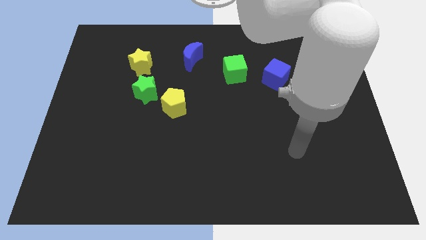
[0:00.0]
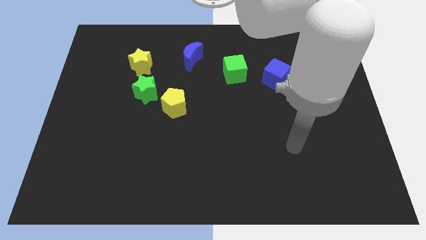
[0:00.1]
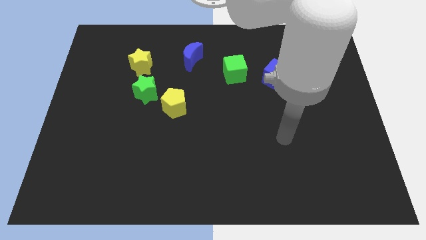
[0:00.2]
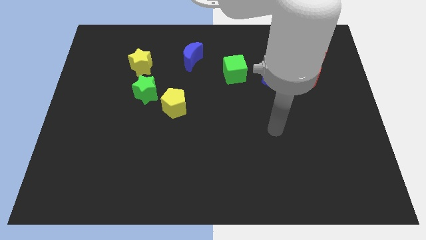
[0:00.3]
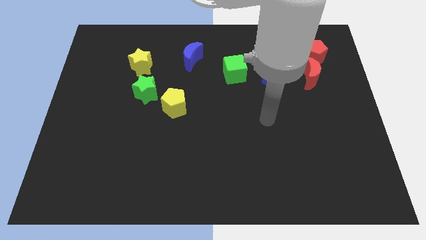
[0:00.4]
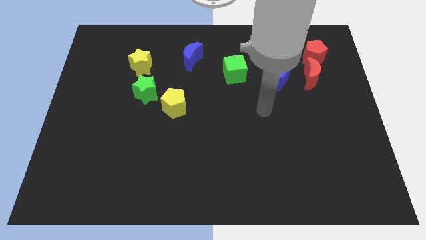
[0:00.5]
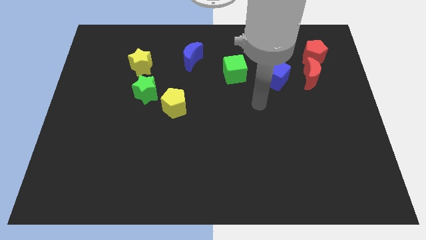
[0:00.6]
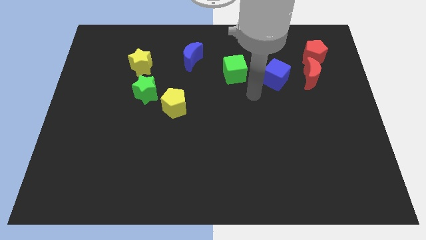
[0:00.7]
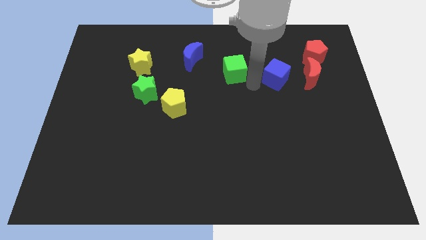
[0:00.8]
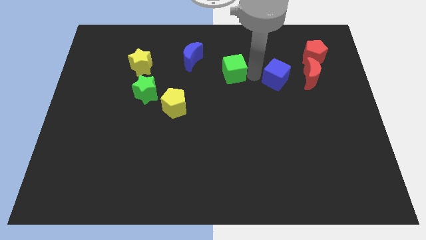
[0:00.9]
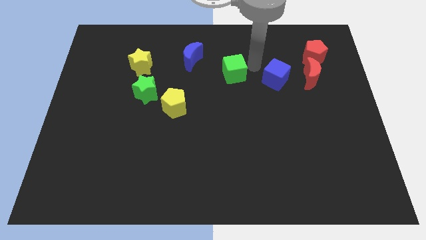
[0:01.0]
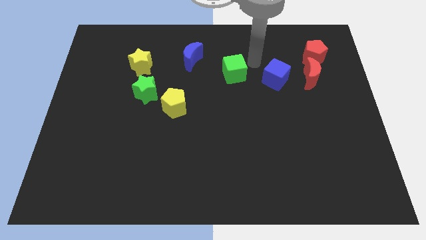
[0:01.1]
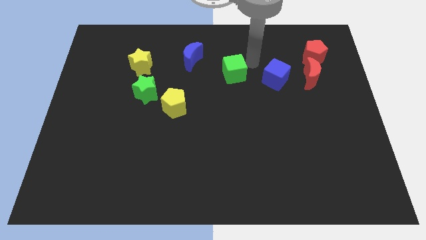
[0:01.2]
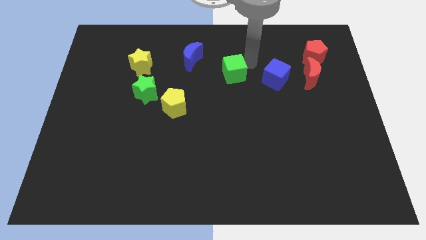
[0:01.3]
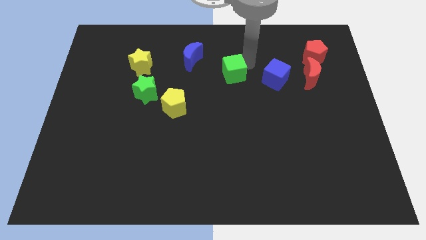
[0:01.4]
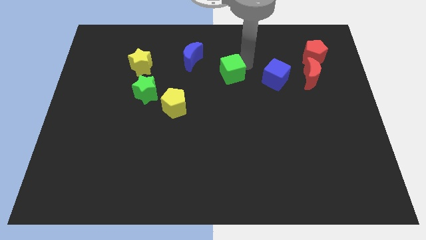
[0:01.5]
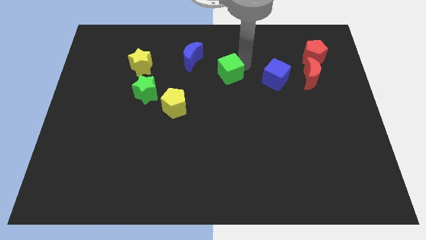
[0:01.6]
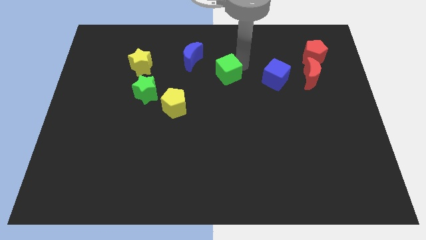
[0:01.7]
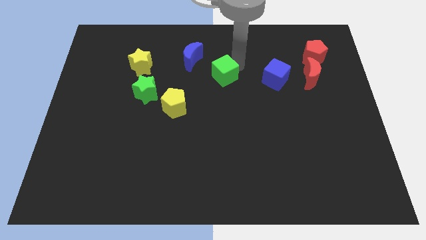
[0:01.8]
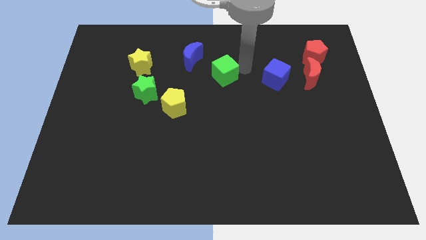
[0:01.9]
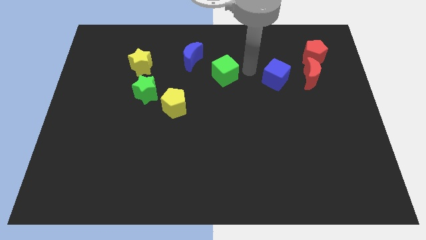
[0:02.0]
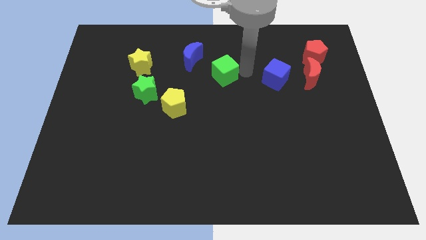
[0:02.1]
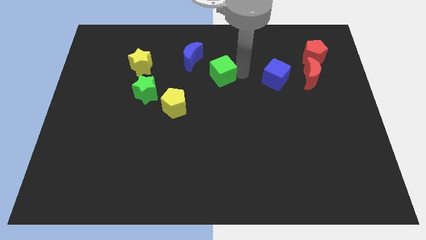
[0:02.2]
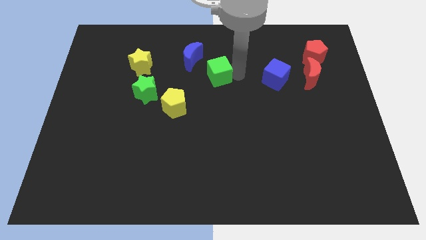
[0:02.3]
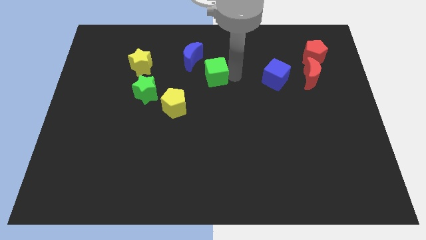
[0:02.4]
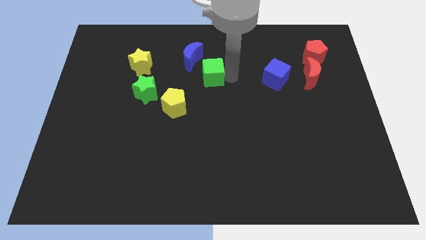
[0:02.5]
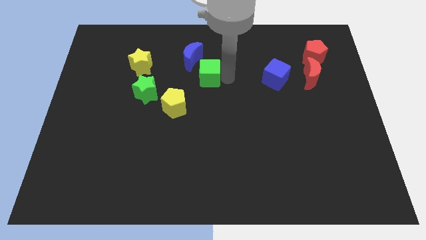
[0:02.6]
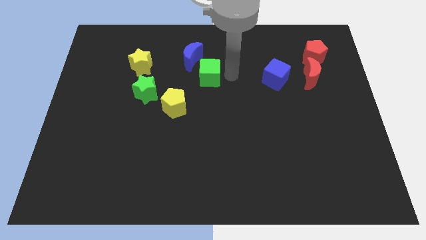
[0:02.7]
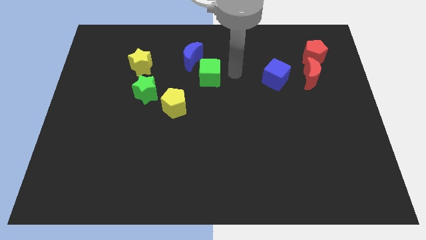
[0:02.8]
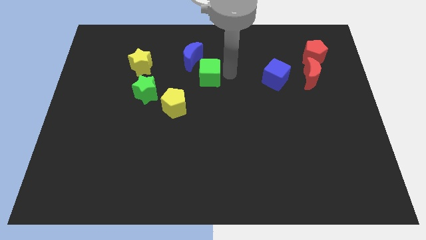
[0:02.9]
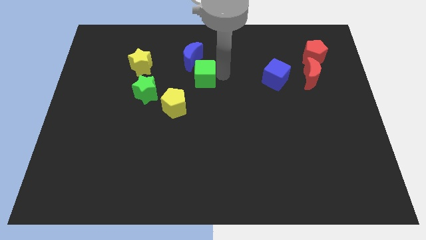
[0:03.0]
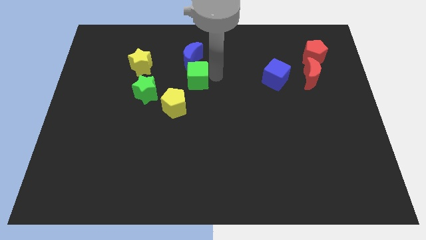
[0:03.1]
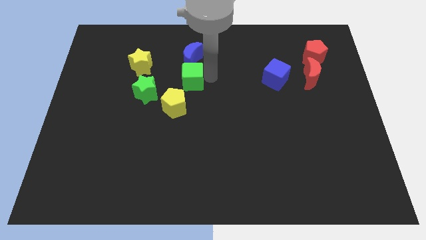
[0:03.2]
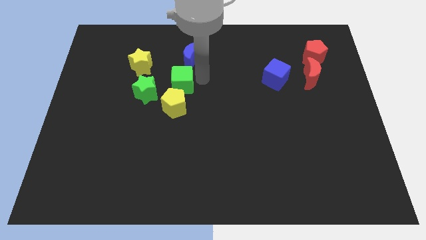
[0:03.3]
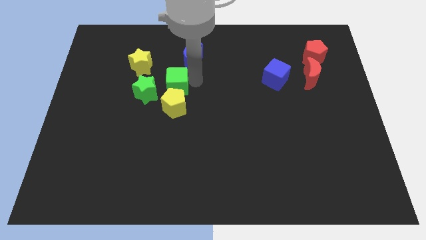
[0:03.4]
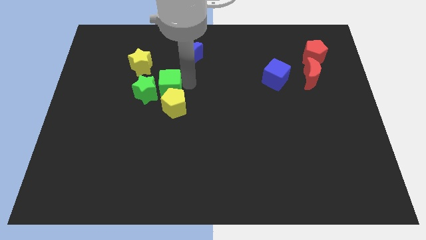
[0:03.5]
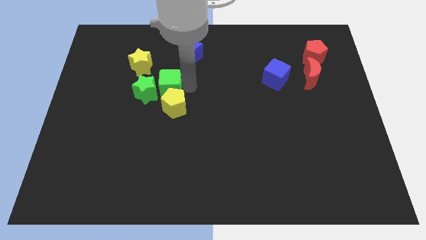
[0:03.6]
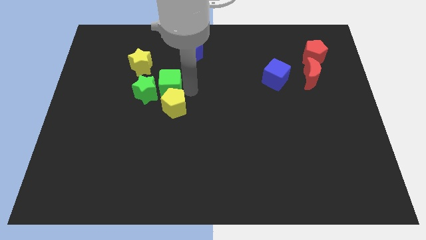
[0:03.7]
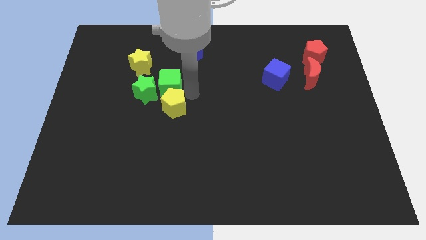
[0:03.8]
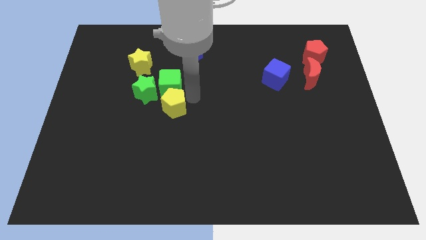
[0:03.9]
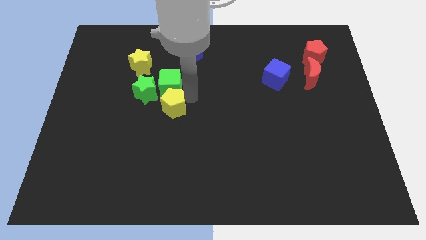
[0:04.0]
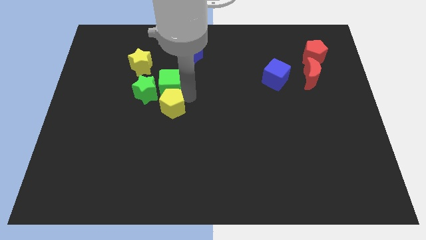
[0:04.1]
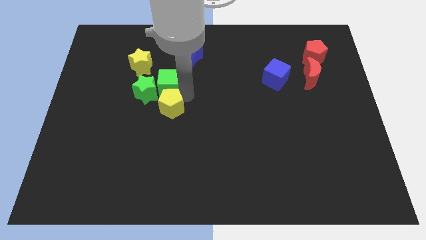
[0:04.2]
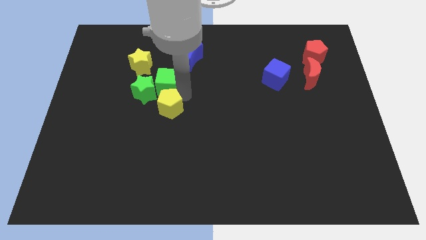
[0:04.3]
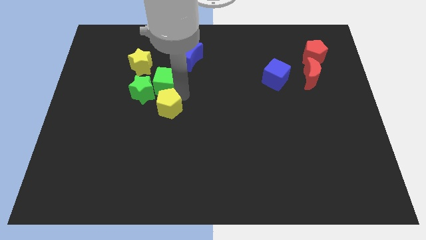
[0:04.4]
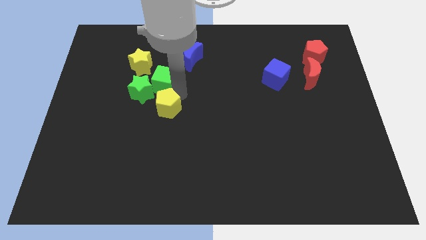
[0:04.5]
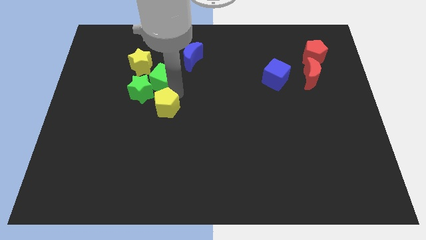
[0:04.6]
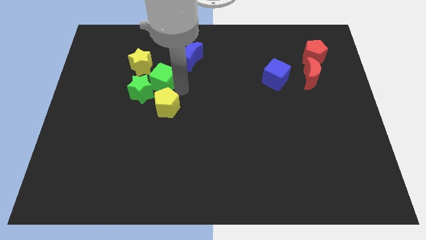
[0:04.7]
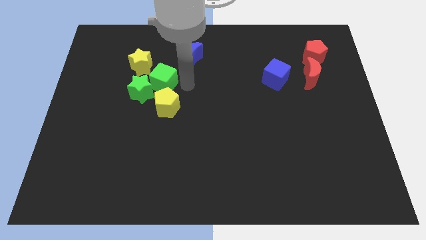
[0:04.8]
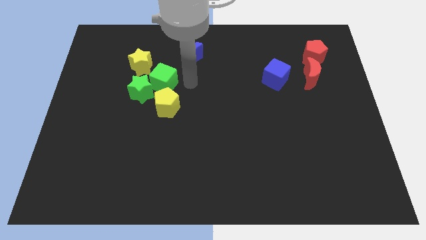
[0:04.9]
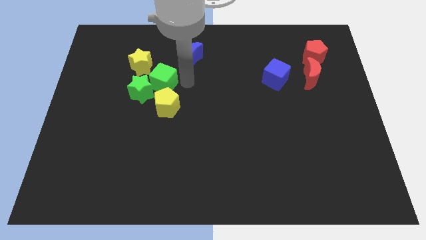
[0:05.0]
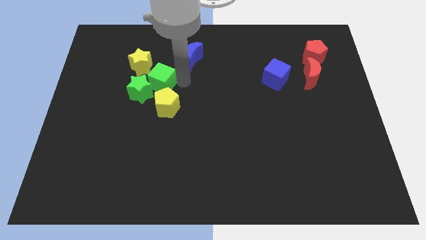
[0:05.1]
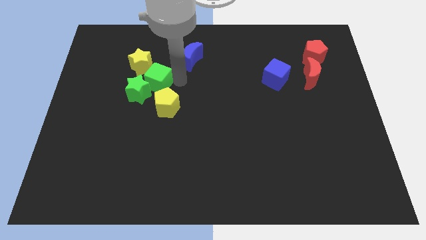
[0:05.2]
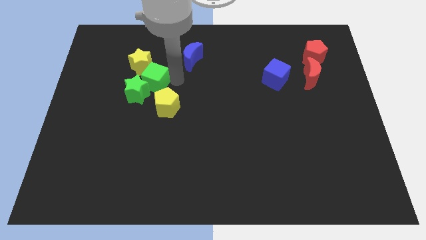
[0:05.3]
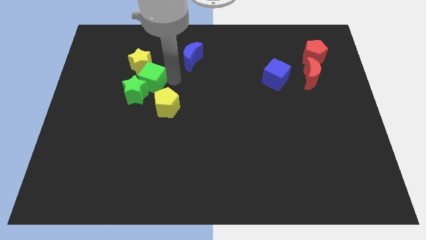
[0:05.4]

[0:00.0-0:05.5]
move the green cube left

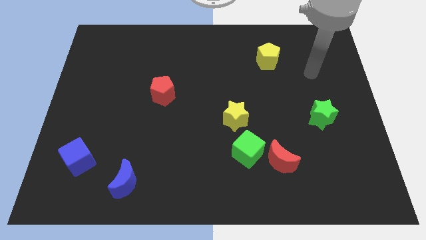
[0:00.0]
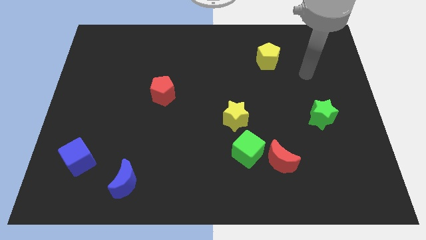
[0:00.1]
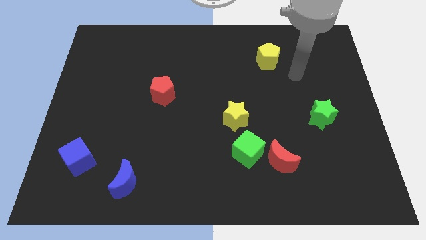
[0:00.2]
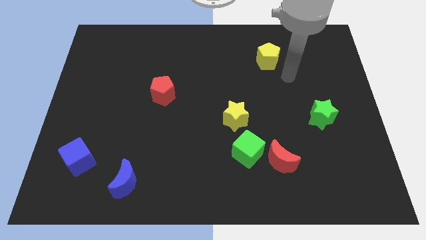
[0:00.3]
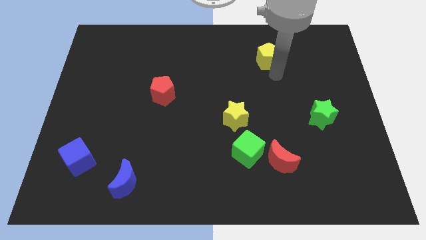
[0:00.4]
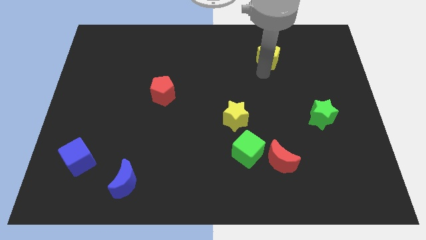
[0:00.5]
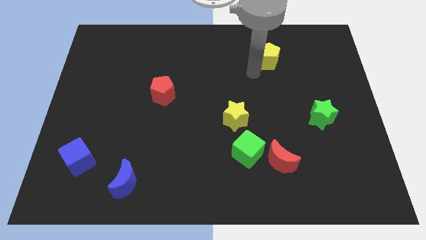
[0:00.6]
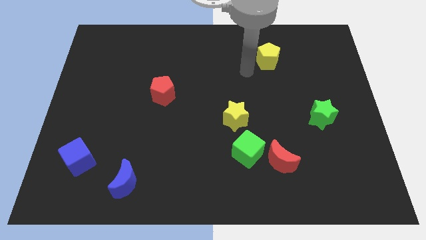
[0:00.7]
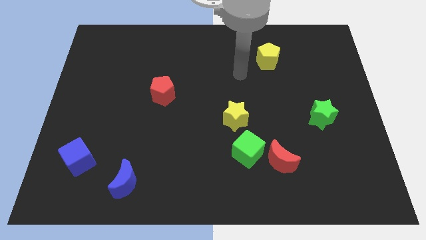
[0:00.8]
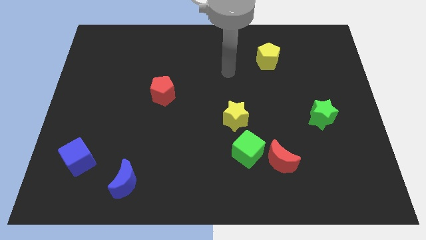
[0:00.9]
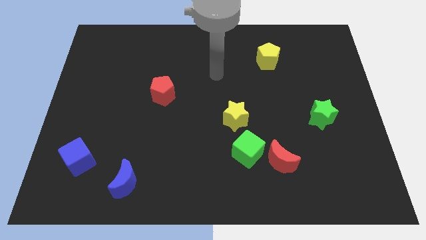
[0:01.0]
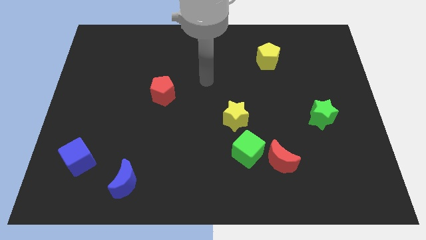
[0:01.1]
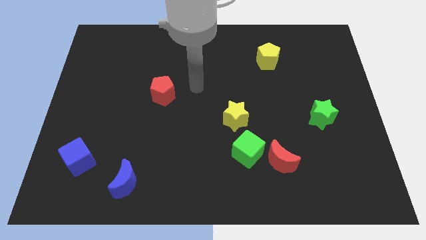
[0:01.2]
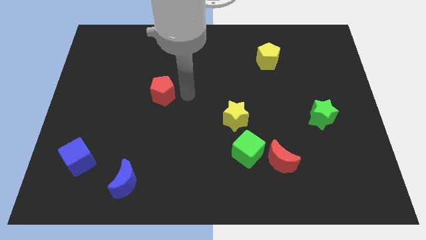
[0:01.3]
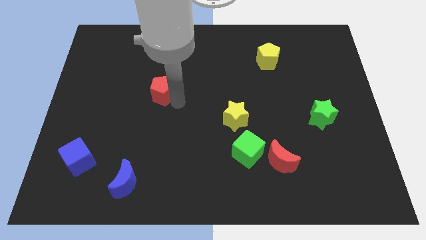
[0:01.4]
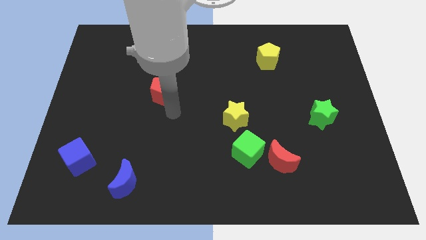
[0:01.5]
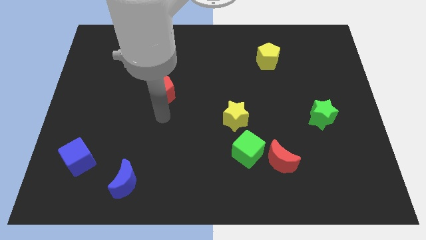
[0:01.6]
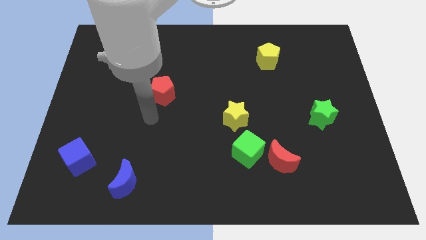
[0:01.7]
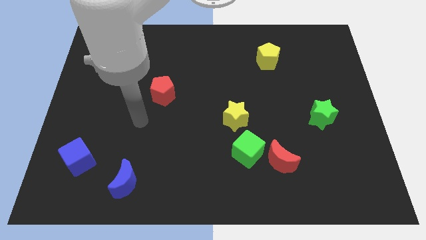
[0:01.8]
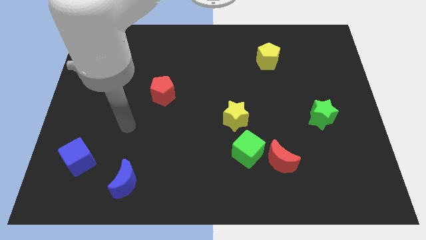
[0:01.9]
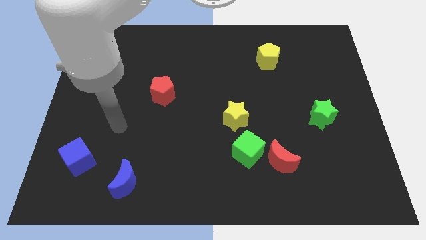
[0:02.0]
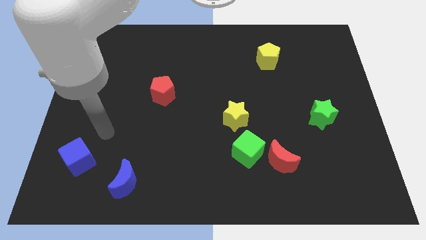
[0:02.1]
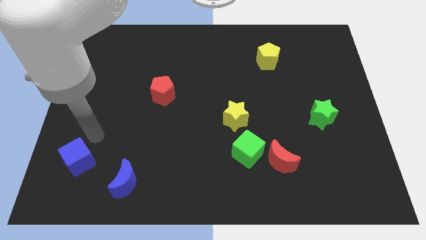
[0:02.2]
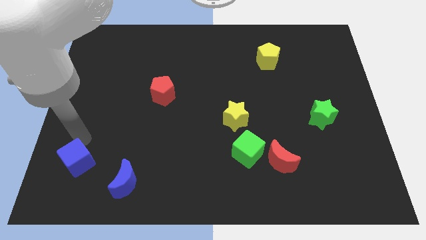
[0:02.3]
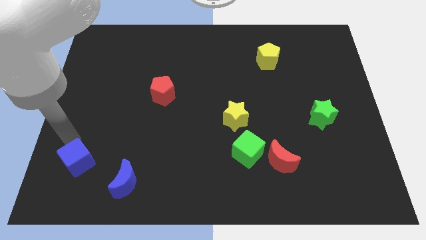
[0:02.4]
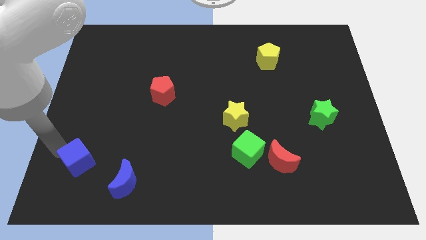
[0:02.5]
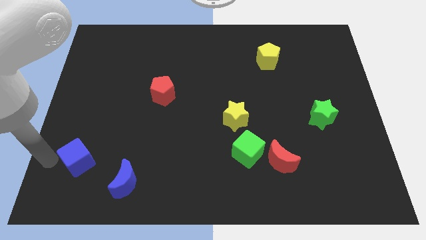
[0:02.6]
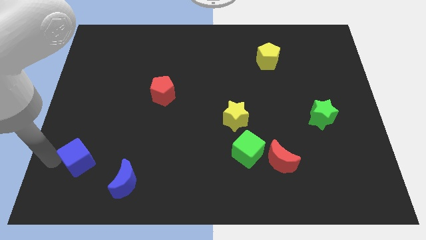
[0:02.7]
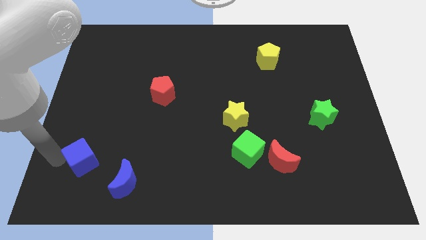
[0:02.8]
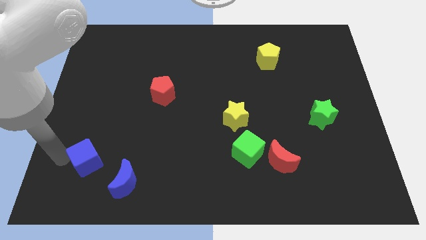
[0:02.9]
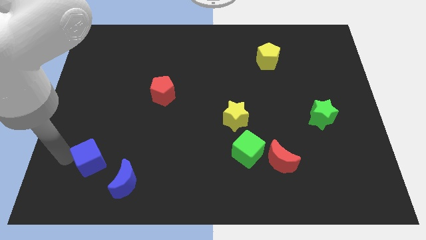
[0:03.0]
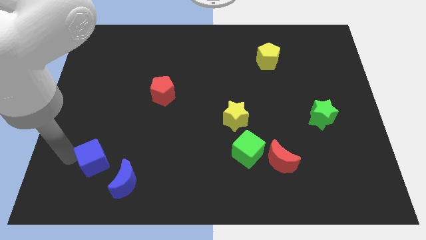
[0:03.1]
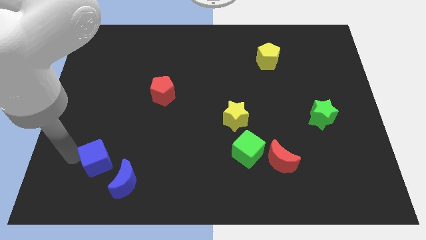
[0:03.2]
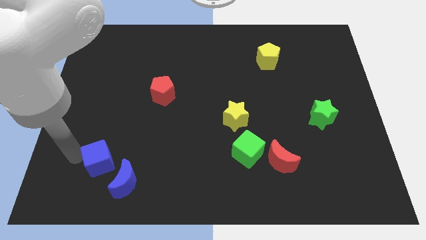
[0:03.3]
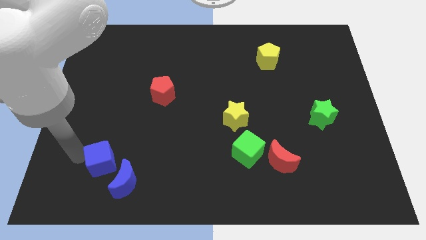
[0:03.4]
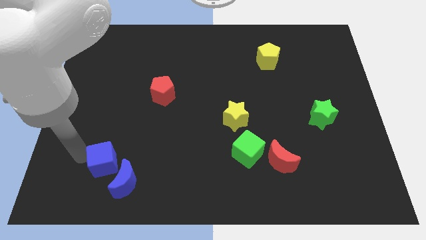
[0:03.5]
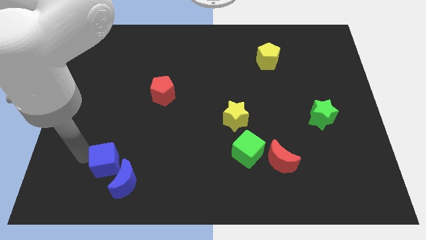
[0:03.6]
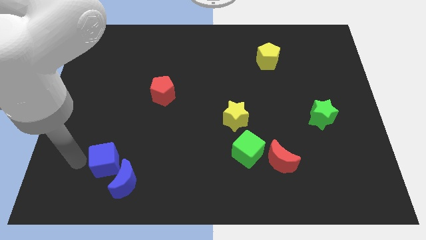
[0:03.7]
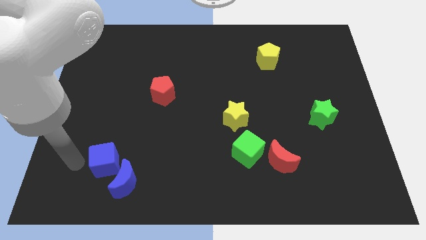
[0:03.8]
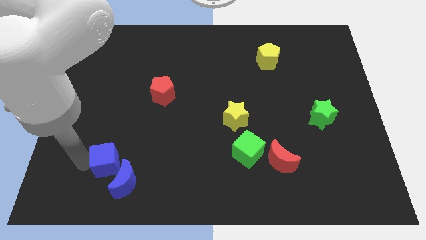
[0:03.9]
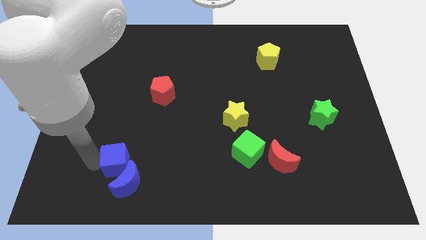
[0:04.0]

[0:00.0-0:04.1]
move the blue cube slightly right
